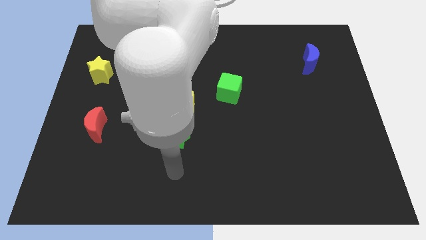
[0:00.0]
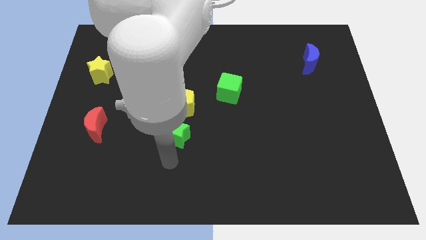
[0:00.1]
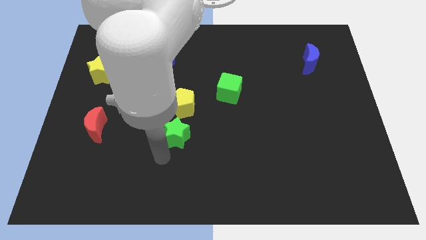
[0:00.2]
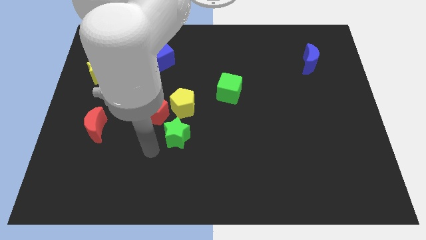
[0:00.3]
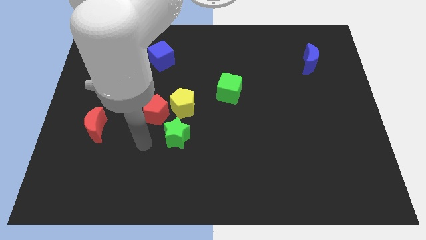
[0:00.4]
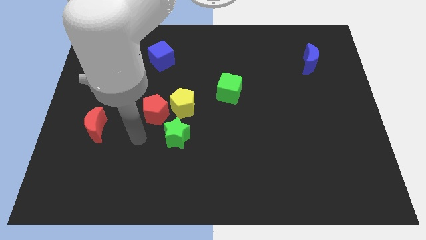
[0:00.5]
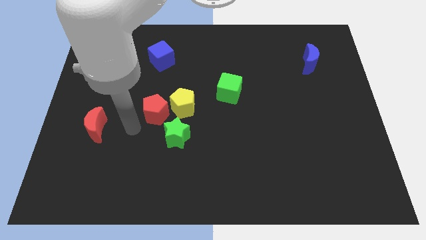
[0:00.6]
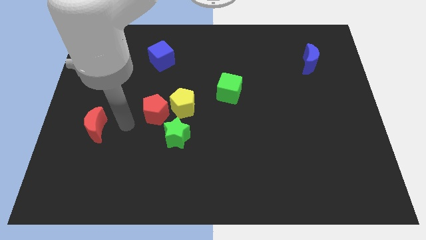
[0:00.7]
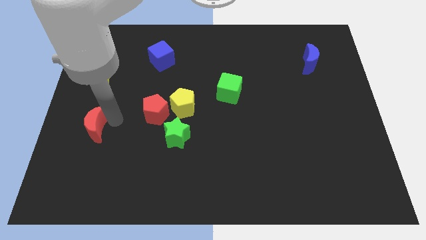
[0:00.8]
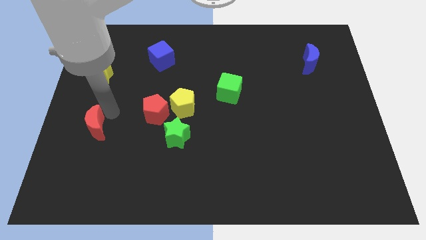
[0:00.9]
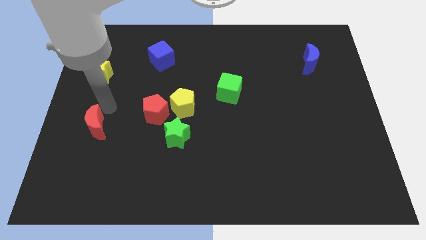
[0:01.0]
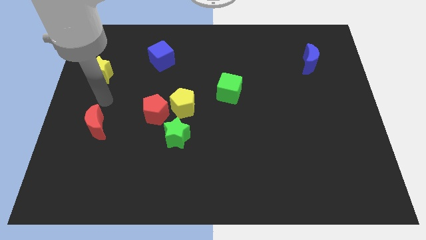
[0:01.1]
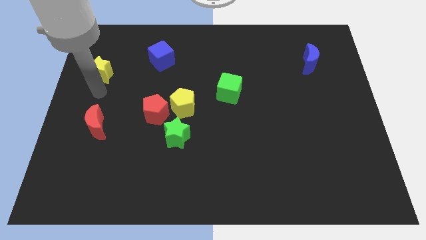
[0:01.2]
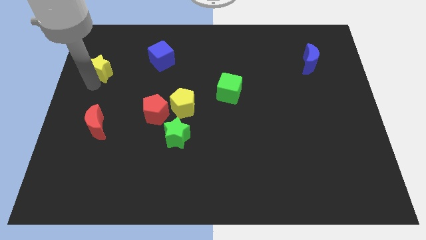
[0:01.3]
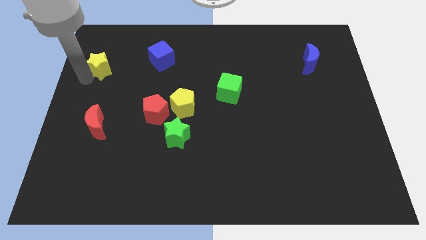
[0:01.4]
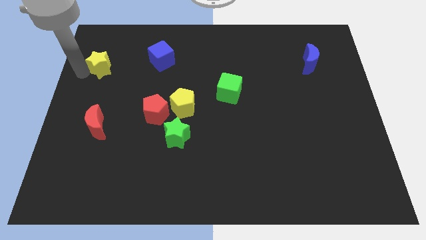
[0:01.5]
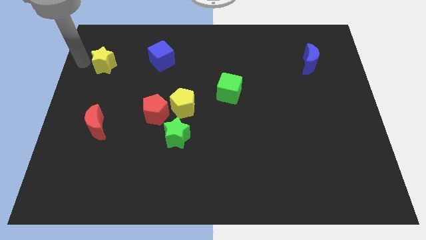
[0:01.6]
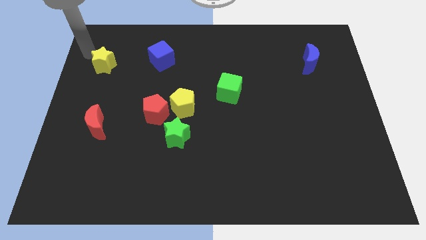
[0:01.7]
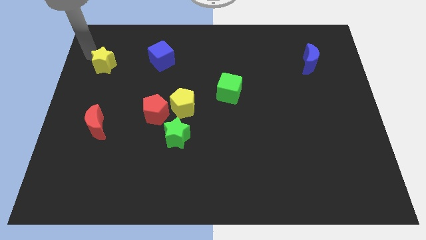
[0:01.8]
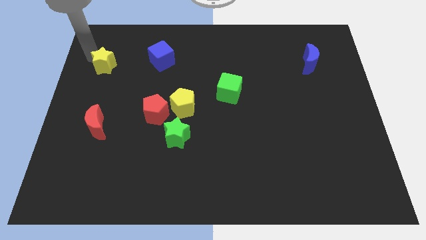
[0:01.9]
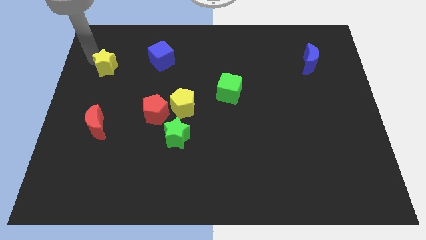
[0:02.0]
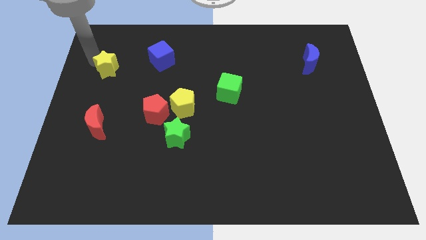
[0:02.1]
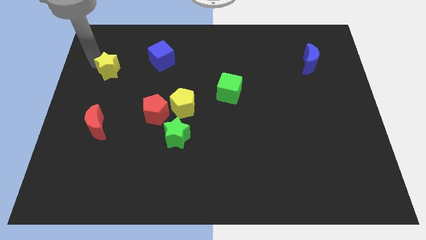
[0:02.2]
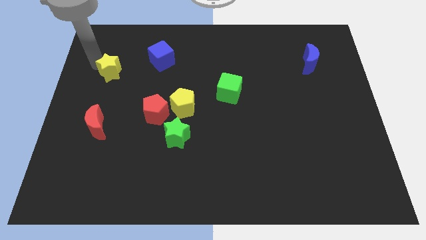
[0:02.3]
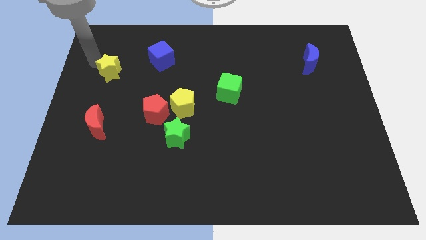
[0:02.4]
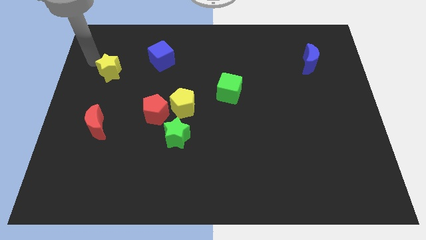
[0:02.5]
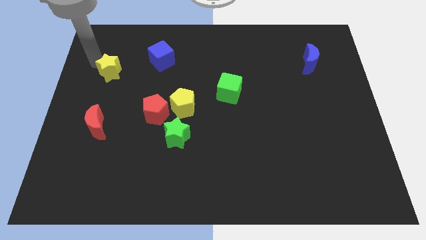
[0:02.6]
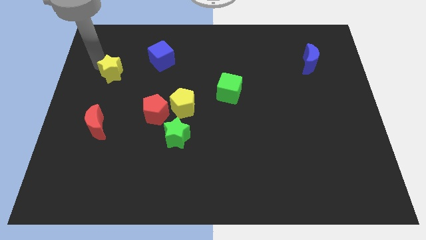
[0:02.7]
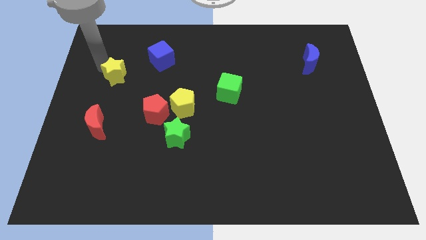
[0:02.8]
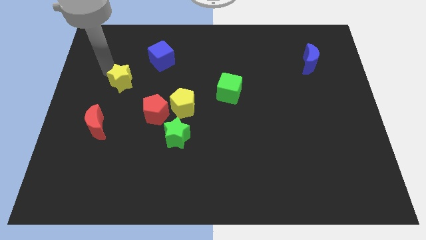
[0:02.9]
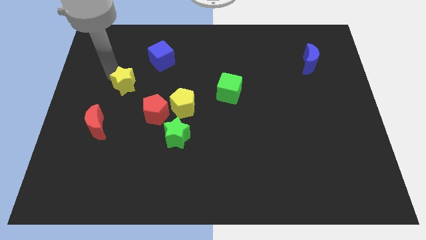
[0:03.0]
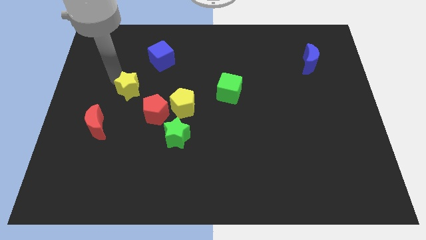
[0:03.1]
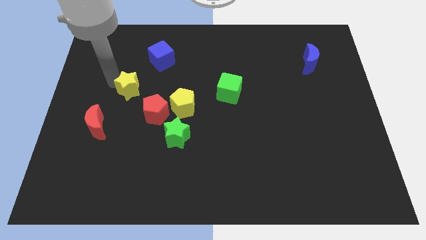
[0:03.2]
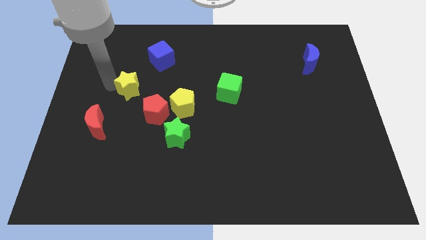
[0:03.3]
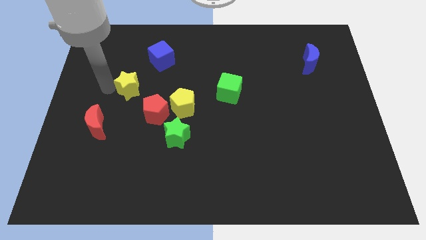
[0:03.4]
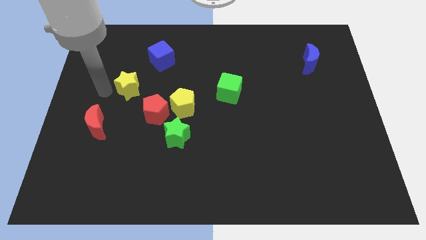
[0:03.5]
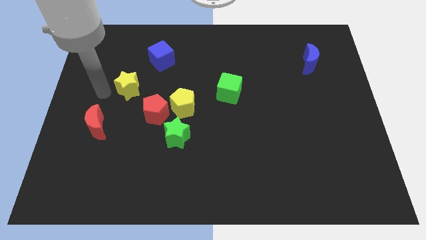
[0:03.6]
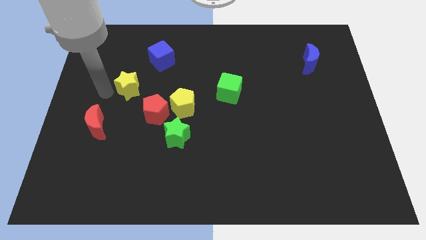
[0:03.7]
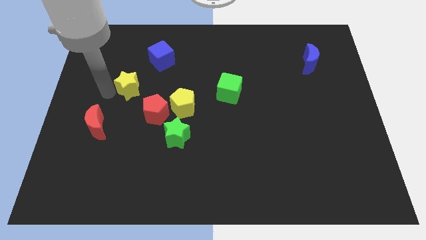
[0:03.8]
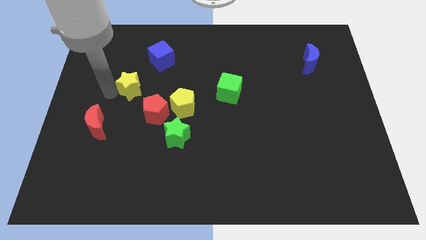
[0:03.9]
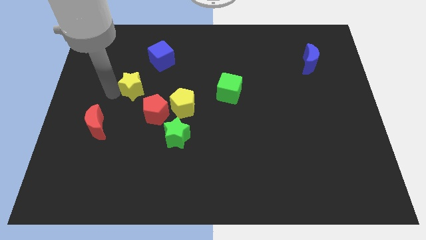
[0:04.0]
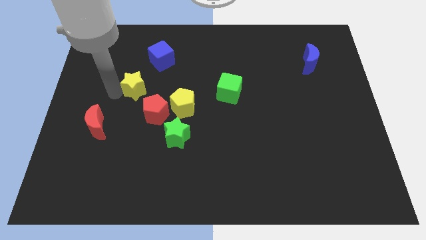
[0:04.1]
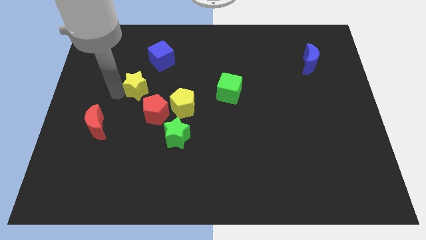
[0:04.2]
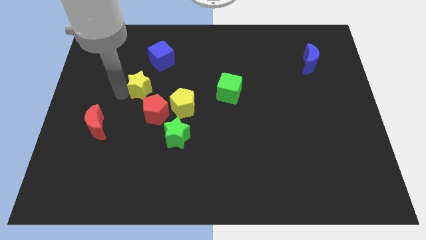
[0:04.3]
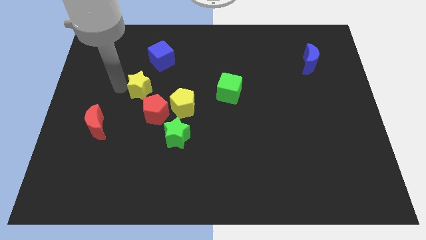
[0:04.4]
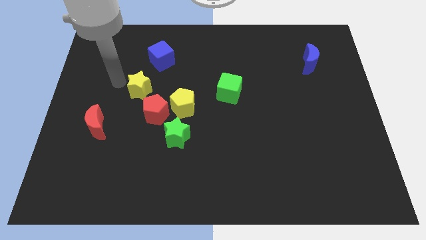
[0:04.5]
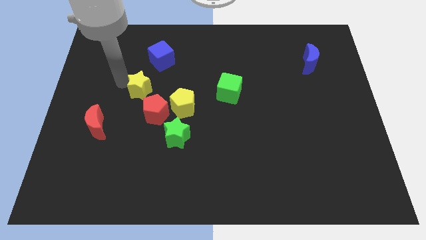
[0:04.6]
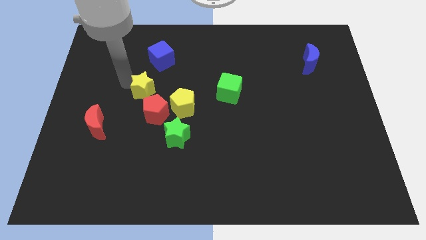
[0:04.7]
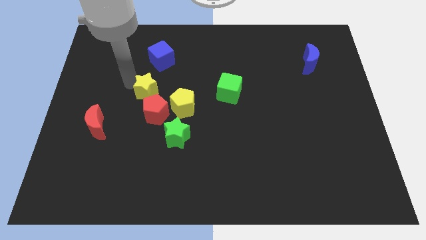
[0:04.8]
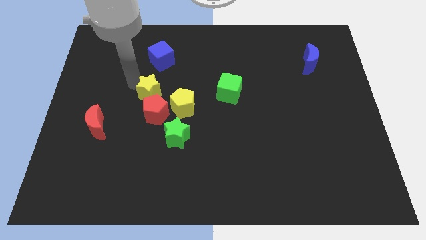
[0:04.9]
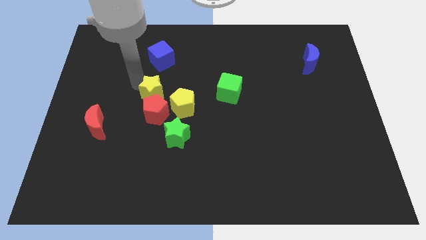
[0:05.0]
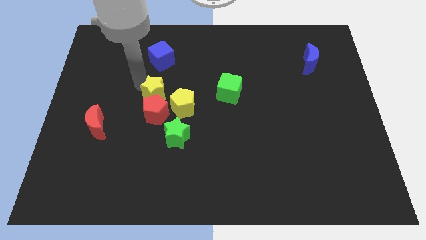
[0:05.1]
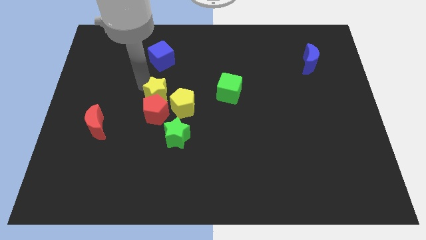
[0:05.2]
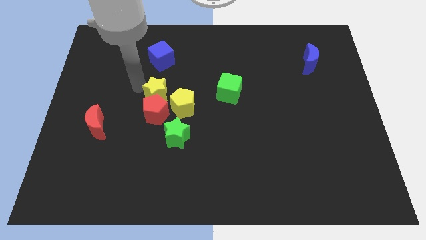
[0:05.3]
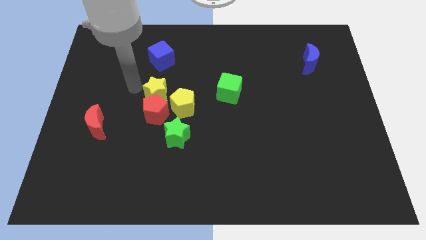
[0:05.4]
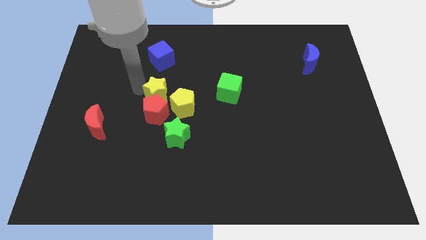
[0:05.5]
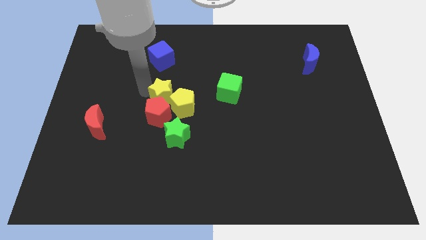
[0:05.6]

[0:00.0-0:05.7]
put the yellow star above the green star
